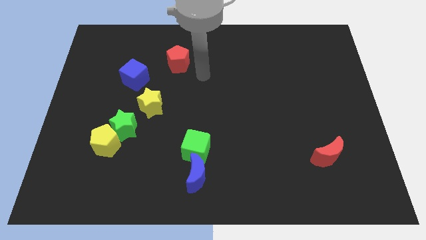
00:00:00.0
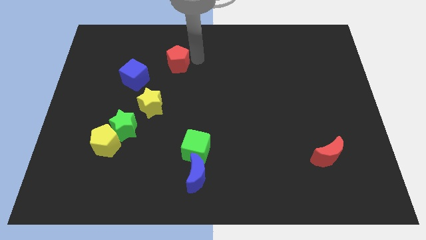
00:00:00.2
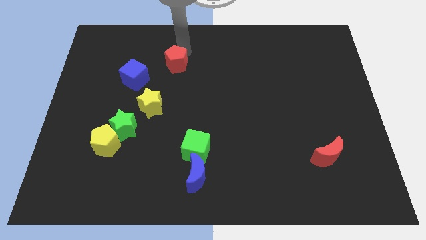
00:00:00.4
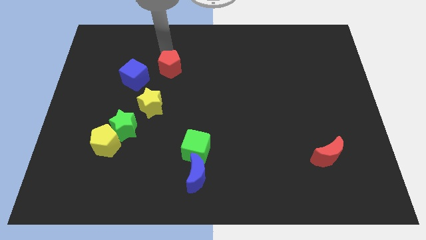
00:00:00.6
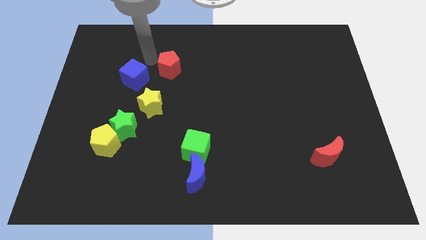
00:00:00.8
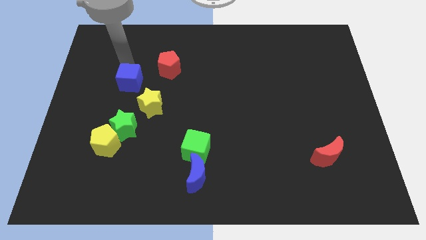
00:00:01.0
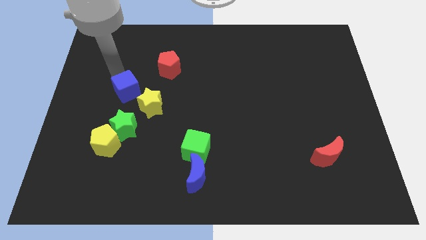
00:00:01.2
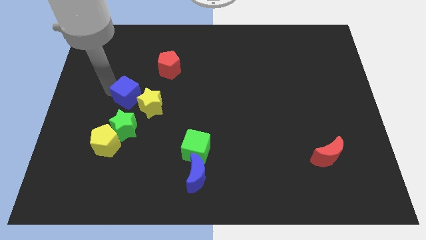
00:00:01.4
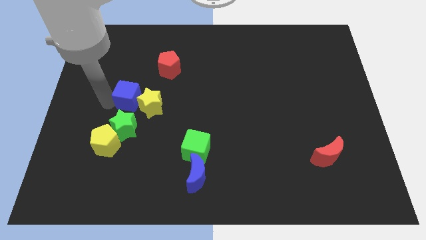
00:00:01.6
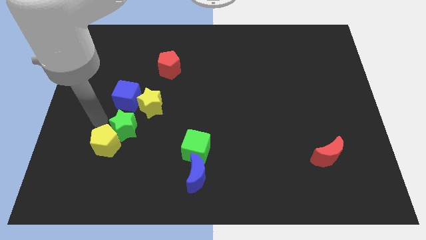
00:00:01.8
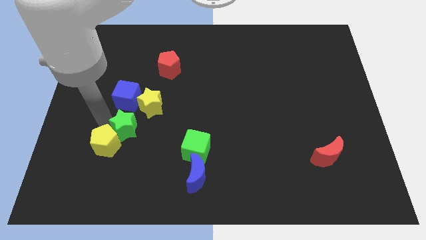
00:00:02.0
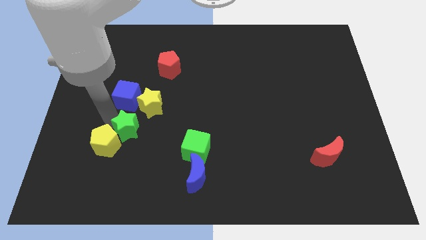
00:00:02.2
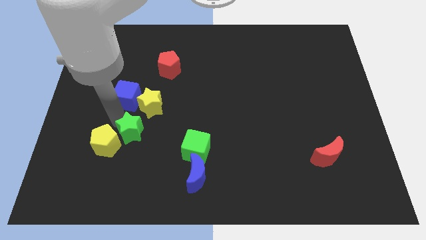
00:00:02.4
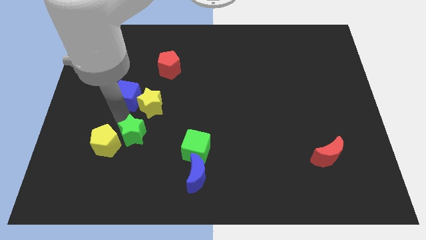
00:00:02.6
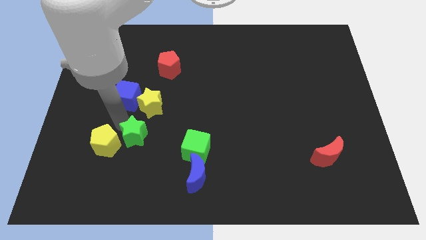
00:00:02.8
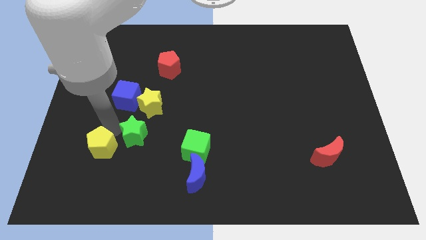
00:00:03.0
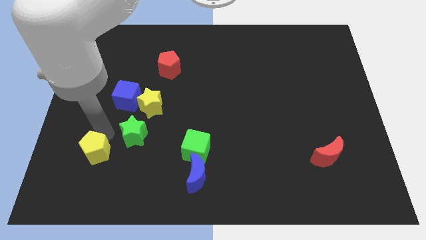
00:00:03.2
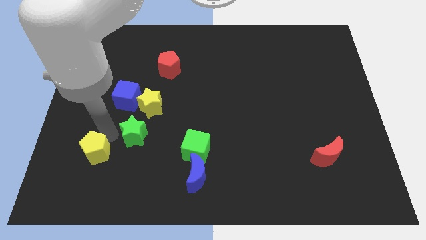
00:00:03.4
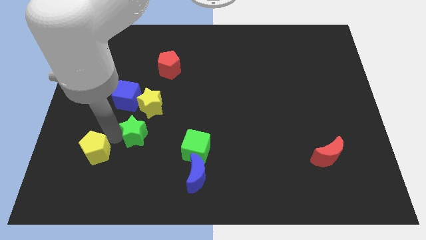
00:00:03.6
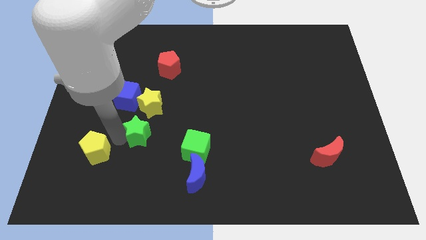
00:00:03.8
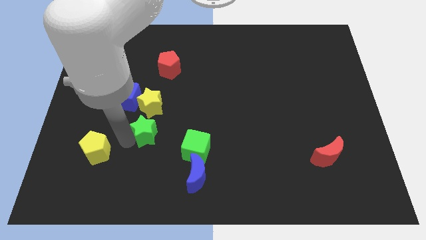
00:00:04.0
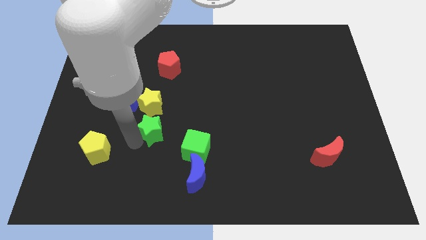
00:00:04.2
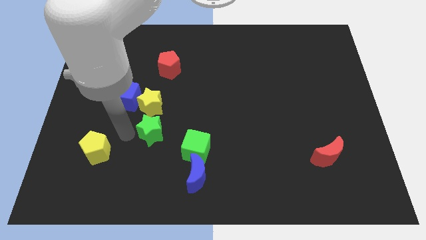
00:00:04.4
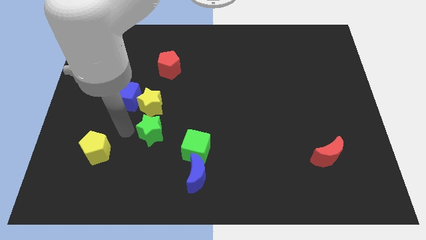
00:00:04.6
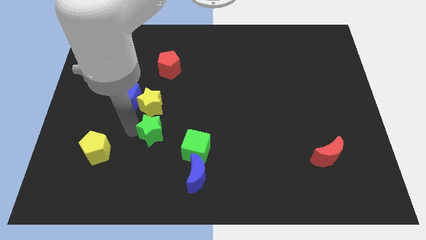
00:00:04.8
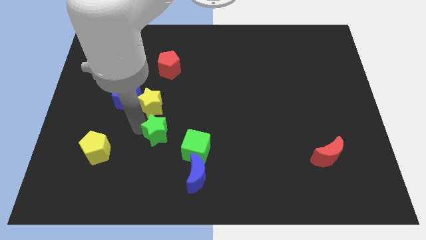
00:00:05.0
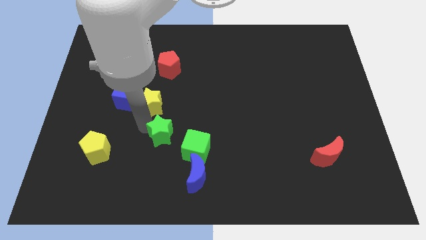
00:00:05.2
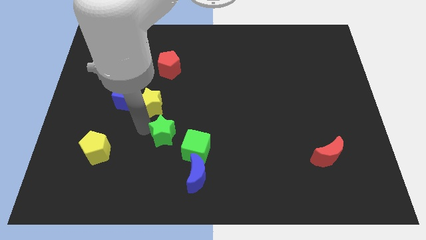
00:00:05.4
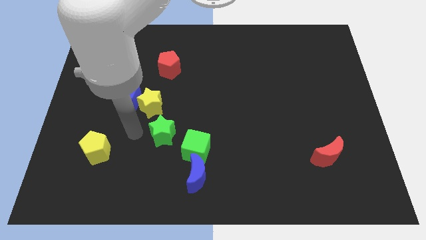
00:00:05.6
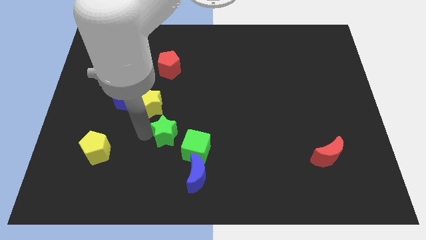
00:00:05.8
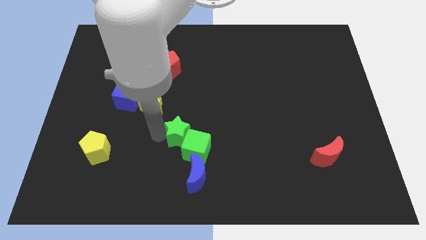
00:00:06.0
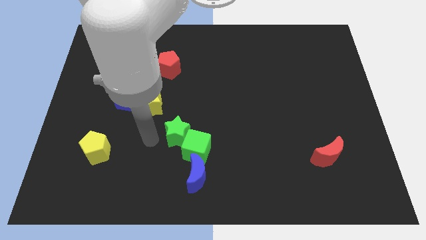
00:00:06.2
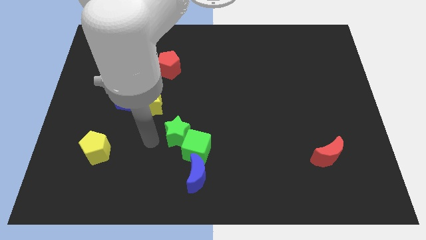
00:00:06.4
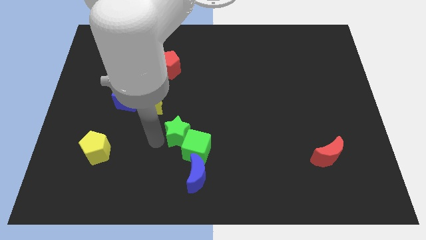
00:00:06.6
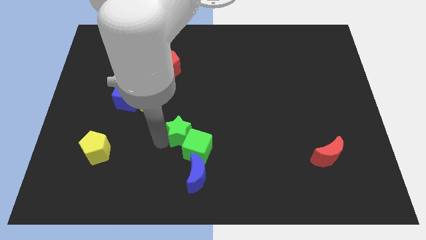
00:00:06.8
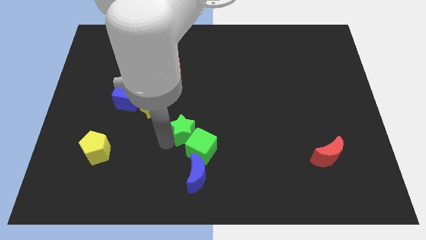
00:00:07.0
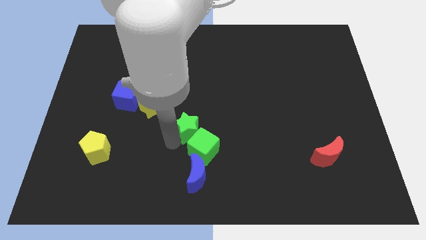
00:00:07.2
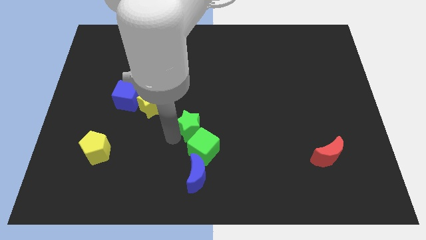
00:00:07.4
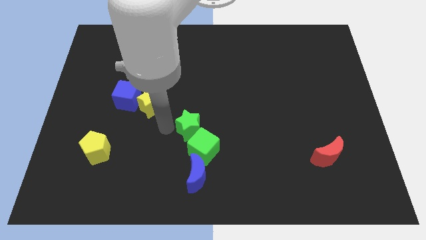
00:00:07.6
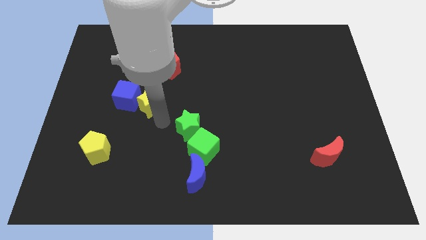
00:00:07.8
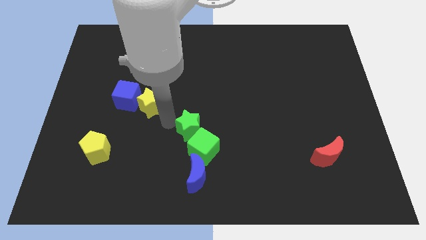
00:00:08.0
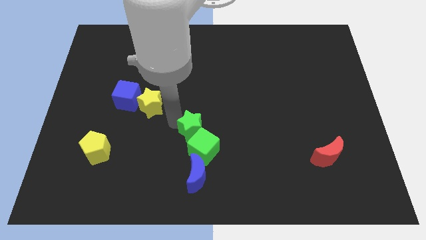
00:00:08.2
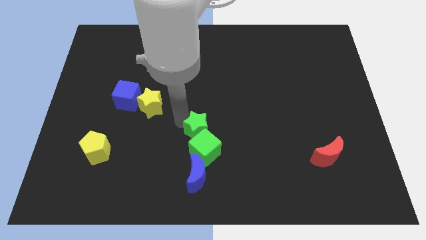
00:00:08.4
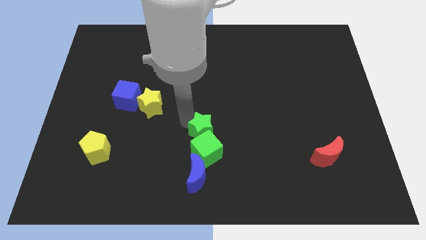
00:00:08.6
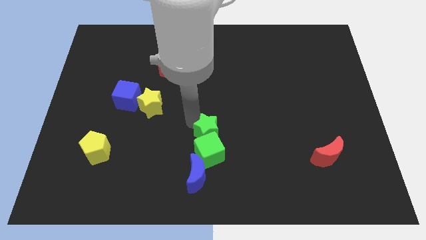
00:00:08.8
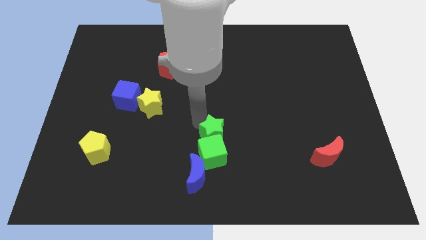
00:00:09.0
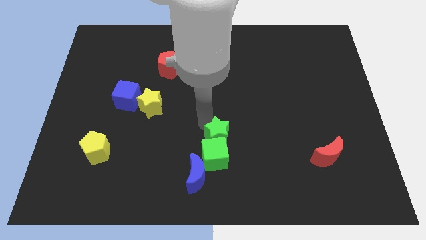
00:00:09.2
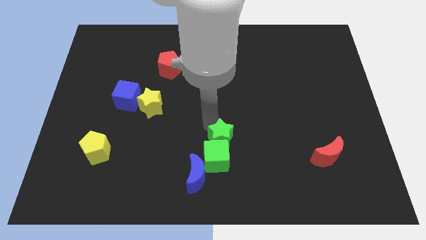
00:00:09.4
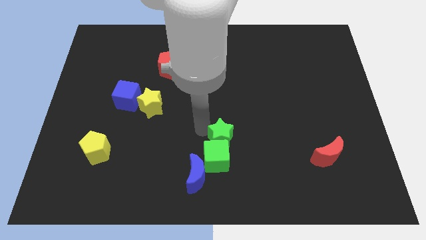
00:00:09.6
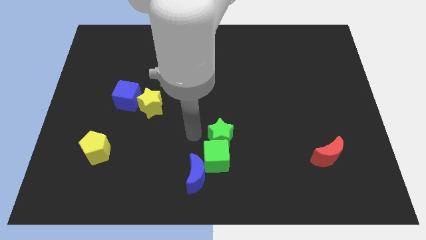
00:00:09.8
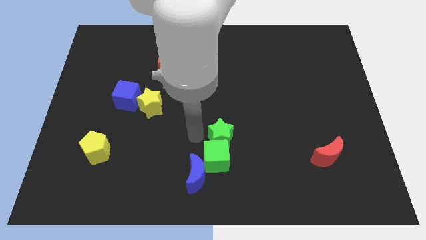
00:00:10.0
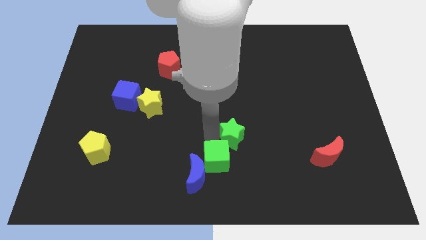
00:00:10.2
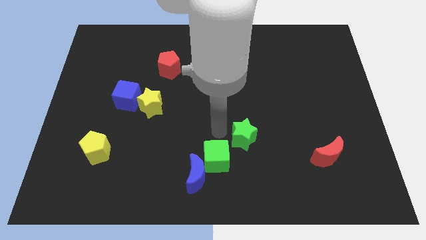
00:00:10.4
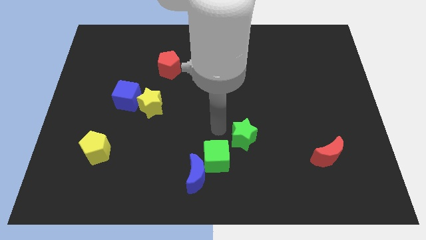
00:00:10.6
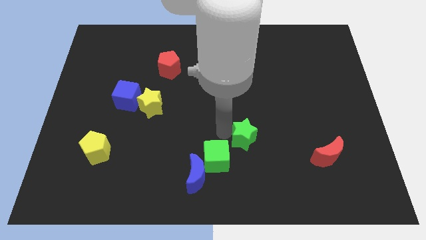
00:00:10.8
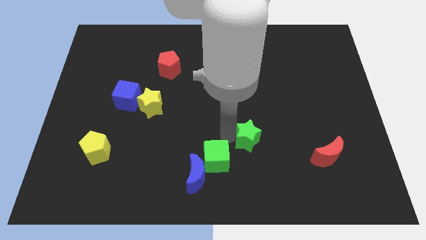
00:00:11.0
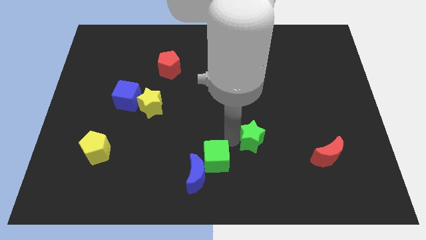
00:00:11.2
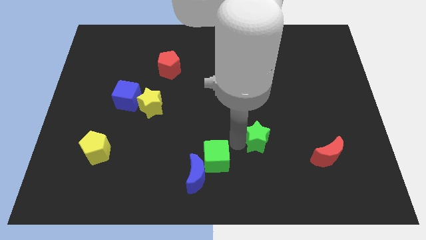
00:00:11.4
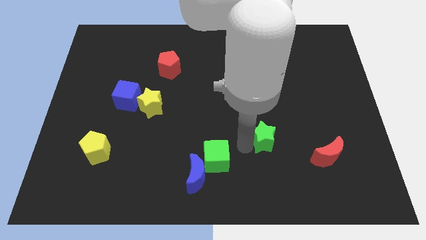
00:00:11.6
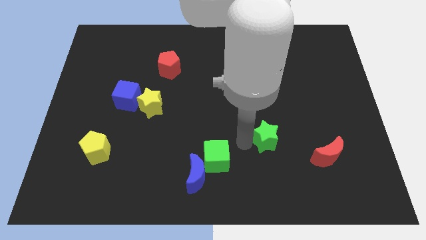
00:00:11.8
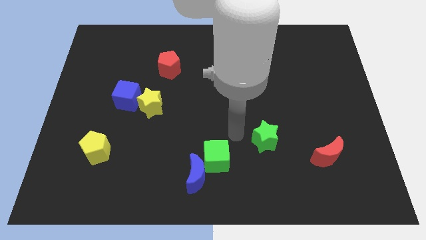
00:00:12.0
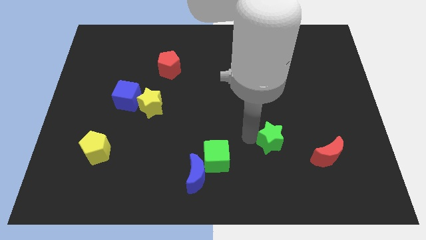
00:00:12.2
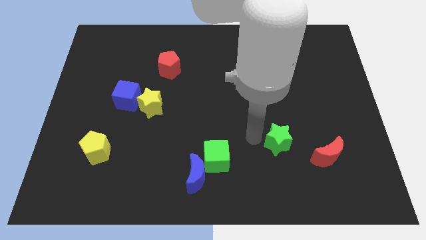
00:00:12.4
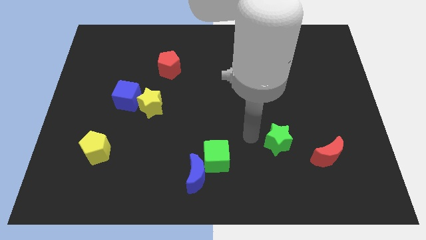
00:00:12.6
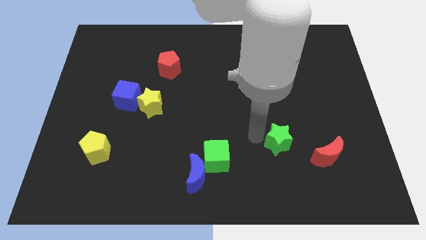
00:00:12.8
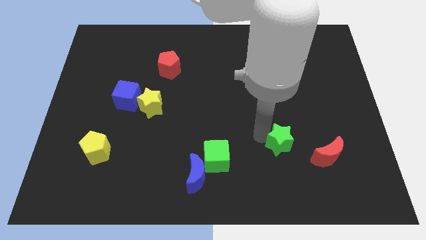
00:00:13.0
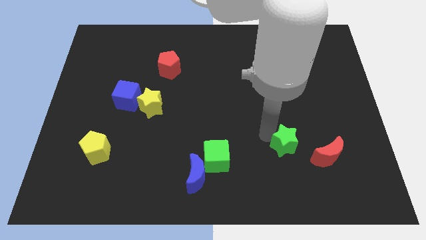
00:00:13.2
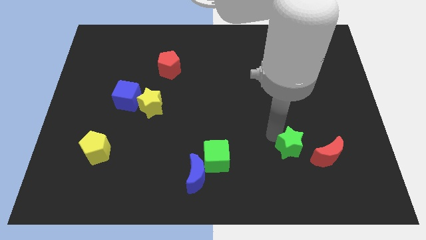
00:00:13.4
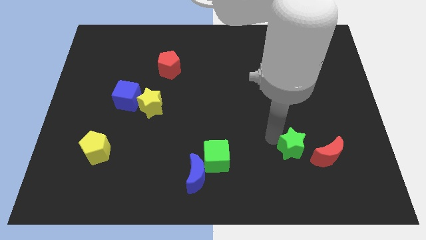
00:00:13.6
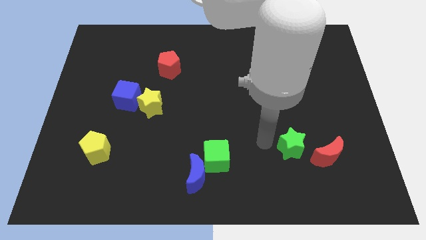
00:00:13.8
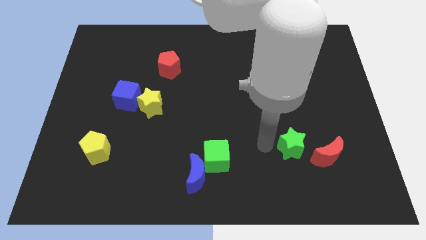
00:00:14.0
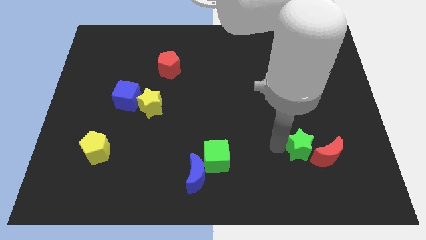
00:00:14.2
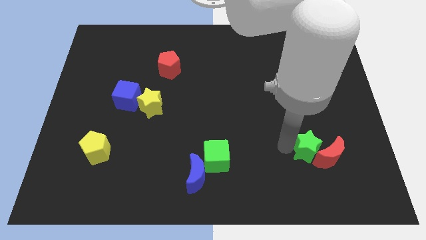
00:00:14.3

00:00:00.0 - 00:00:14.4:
move the green star towards the red moon

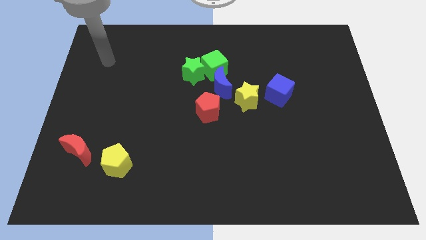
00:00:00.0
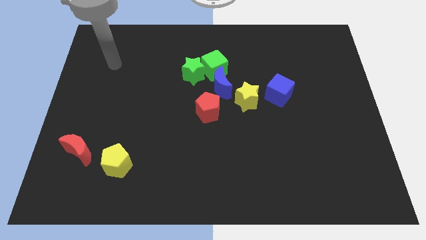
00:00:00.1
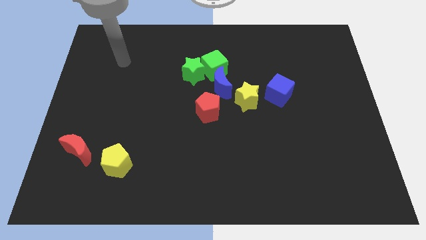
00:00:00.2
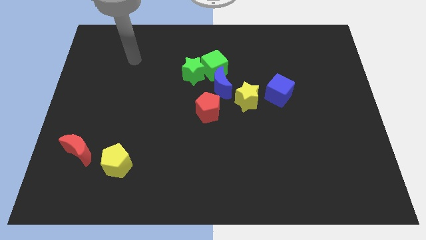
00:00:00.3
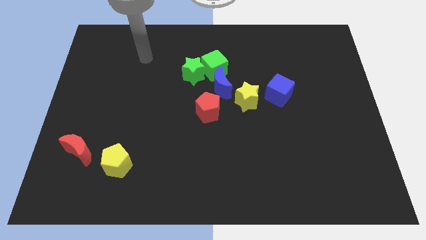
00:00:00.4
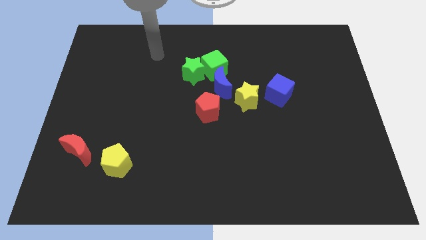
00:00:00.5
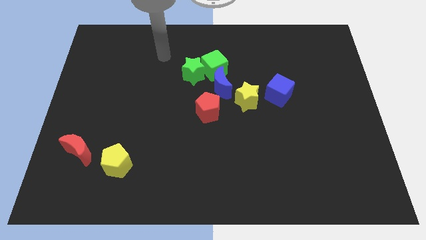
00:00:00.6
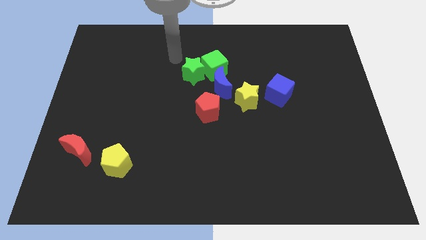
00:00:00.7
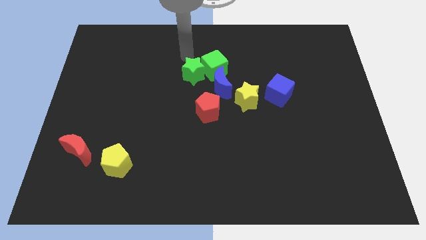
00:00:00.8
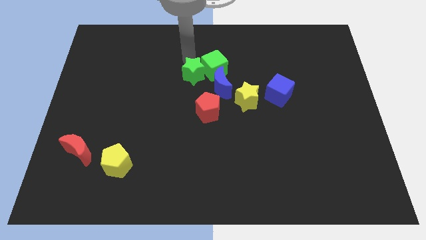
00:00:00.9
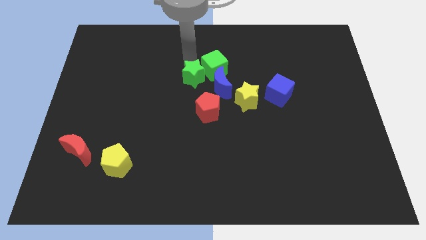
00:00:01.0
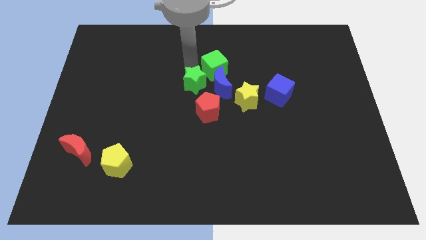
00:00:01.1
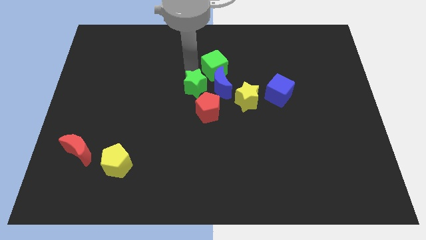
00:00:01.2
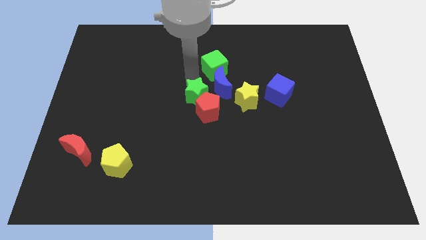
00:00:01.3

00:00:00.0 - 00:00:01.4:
move the green star close to the red pentagon
